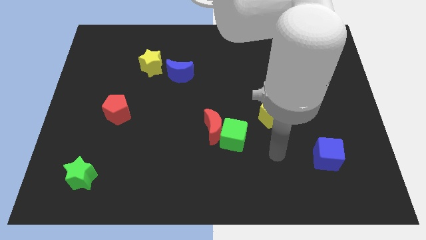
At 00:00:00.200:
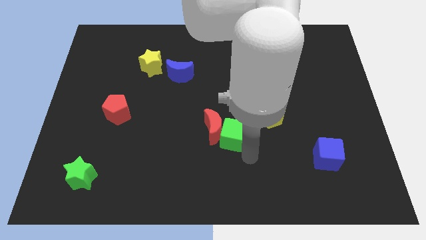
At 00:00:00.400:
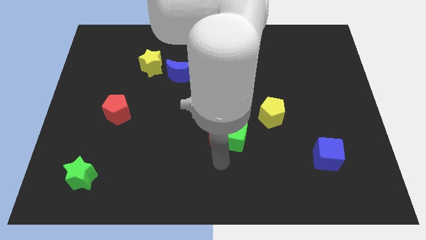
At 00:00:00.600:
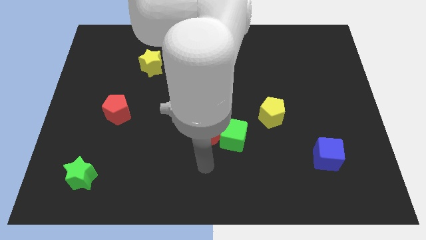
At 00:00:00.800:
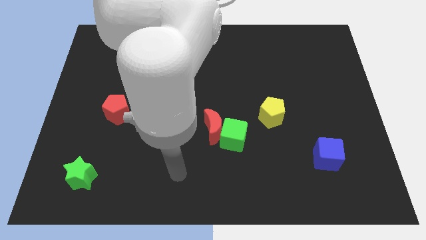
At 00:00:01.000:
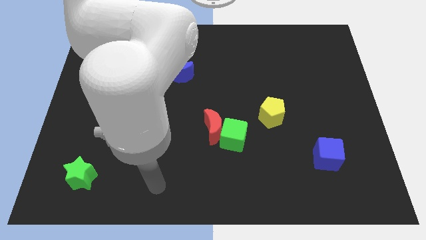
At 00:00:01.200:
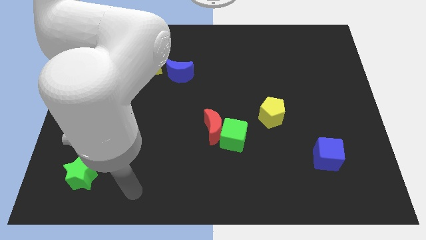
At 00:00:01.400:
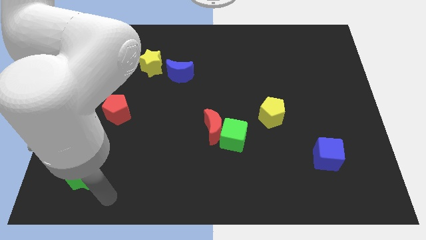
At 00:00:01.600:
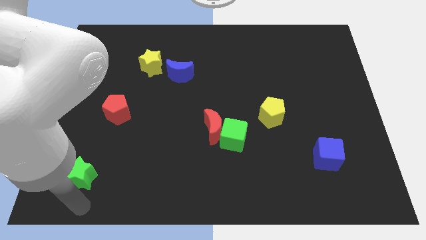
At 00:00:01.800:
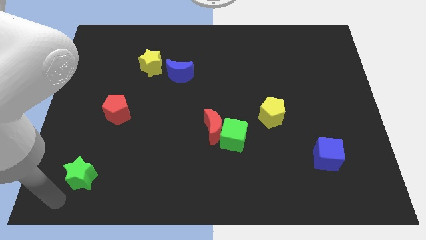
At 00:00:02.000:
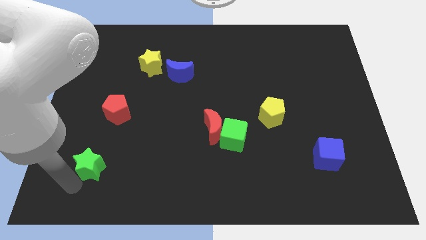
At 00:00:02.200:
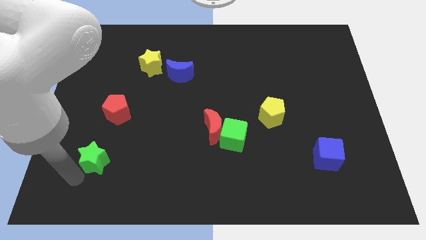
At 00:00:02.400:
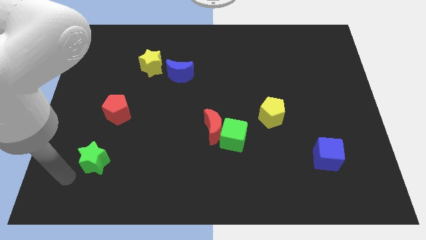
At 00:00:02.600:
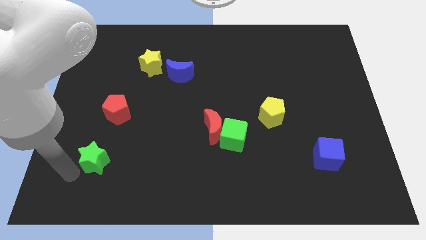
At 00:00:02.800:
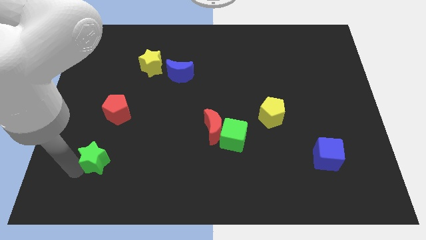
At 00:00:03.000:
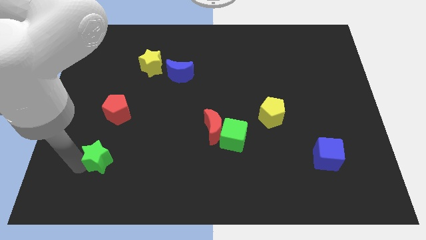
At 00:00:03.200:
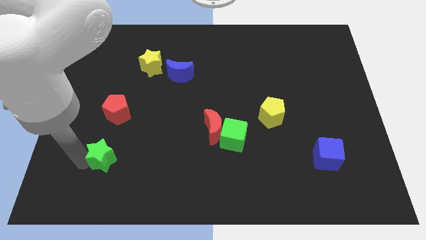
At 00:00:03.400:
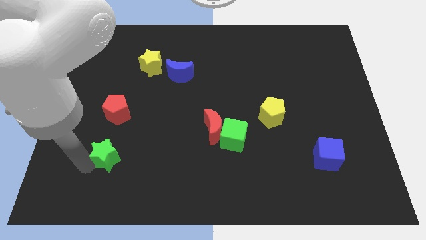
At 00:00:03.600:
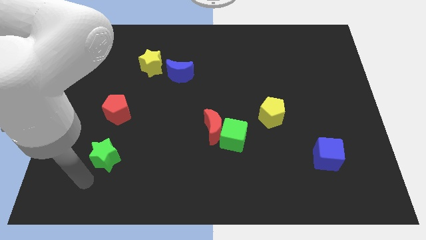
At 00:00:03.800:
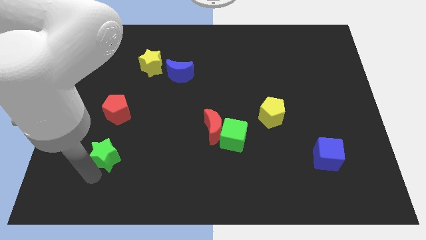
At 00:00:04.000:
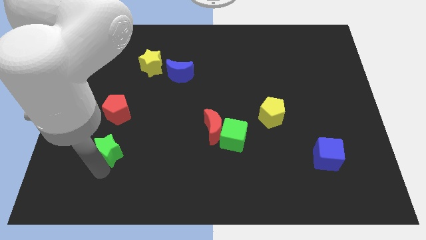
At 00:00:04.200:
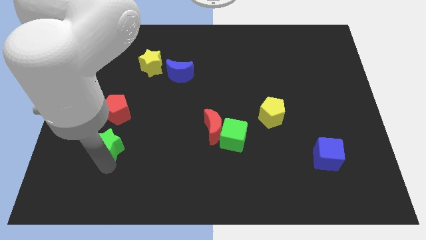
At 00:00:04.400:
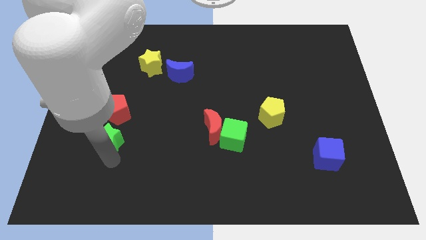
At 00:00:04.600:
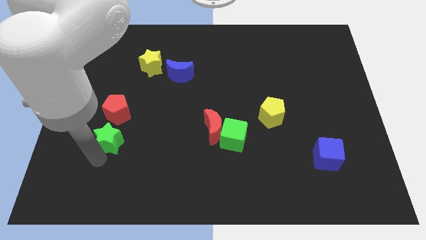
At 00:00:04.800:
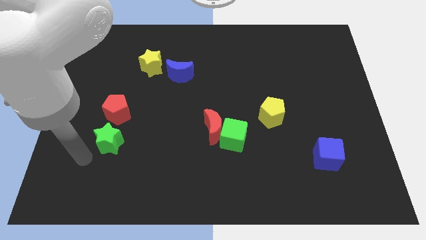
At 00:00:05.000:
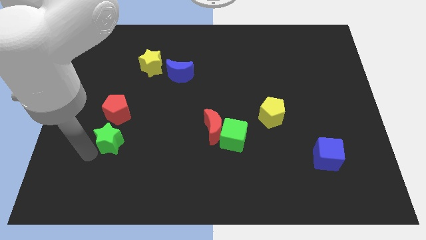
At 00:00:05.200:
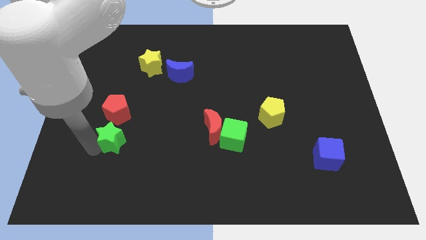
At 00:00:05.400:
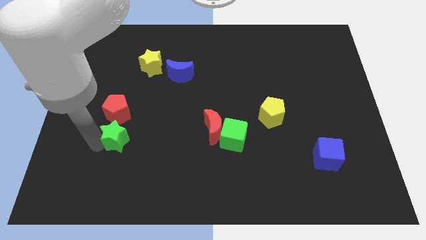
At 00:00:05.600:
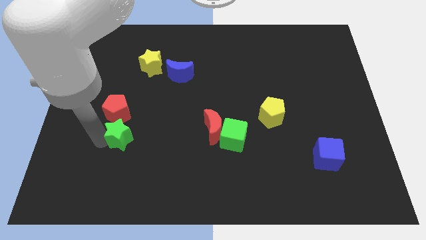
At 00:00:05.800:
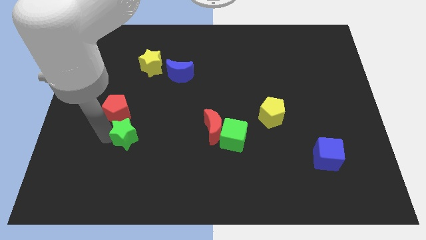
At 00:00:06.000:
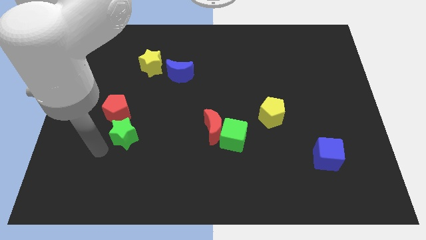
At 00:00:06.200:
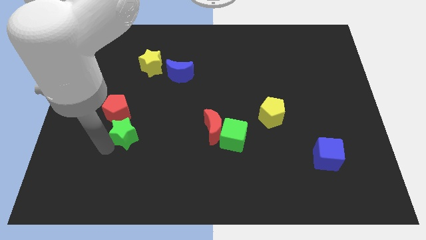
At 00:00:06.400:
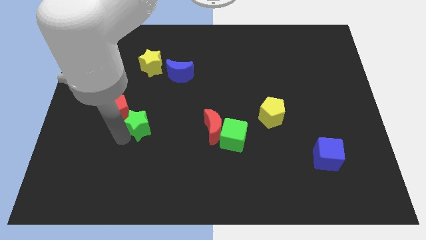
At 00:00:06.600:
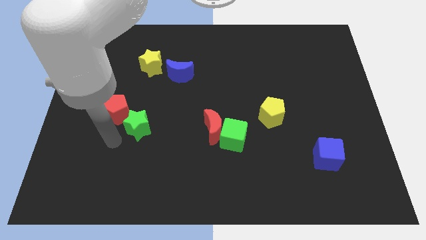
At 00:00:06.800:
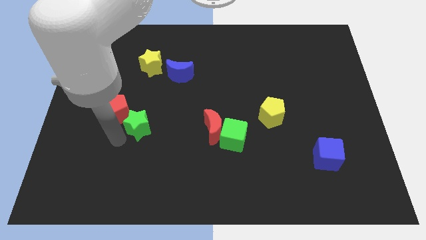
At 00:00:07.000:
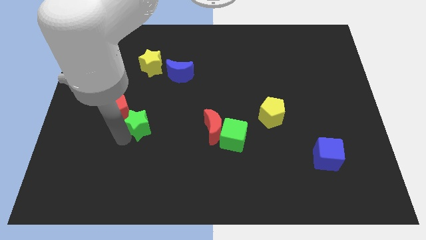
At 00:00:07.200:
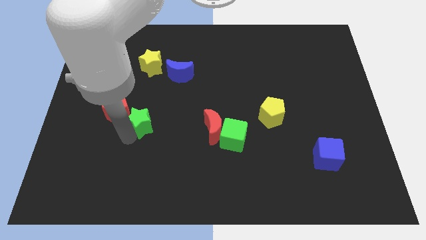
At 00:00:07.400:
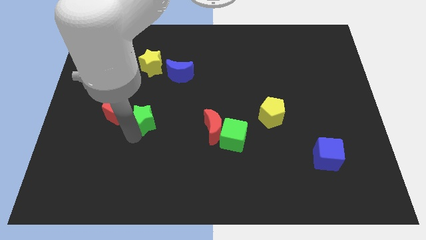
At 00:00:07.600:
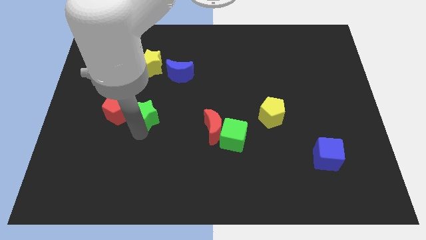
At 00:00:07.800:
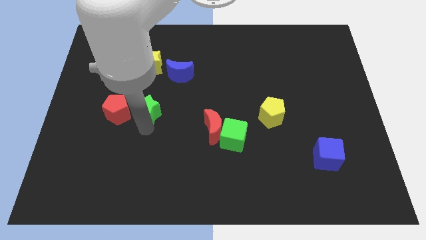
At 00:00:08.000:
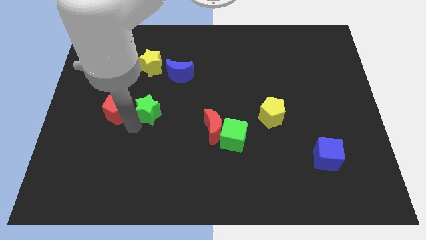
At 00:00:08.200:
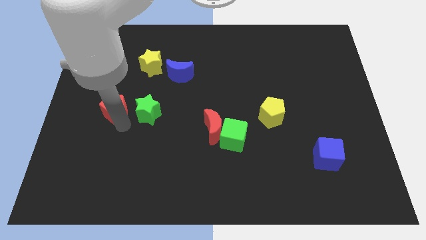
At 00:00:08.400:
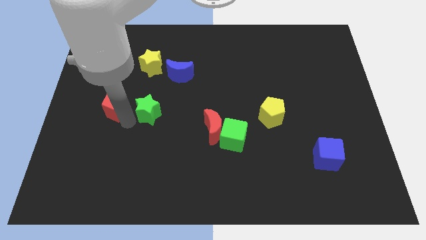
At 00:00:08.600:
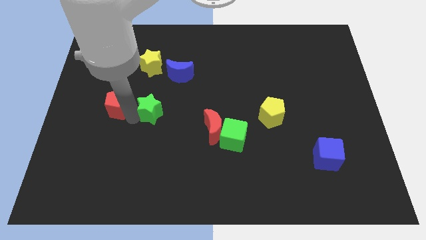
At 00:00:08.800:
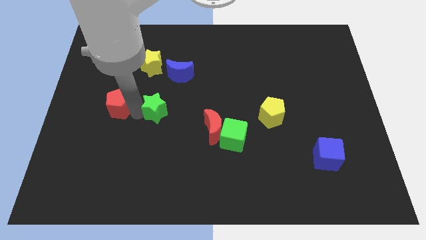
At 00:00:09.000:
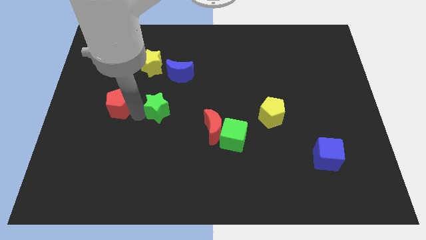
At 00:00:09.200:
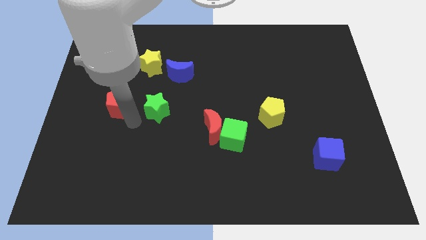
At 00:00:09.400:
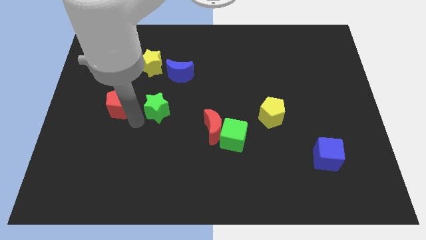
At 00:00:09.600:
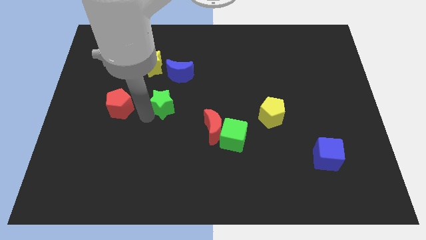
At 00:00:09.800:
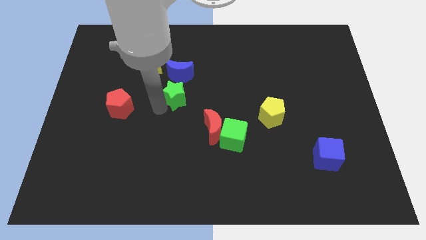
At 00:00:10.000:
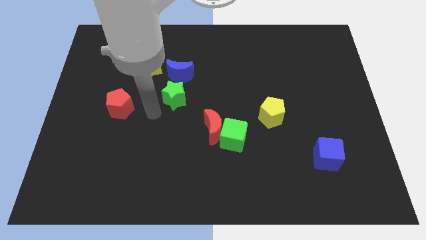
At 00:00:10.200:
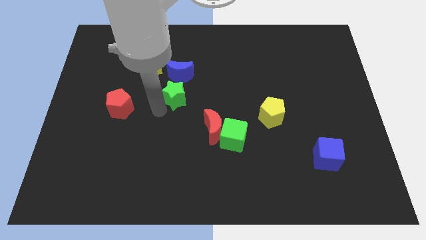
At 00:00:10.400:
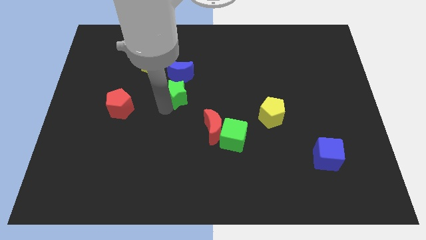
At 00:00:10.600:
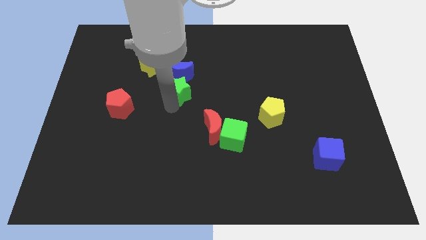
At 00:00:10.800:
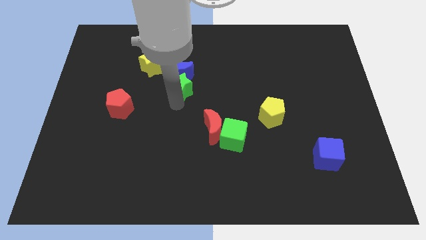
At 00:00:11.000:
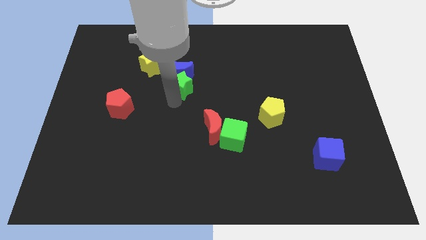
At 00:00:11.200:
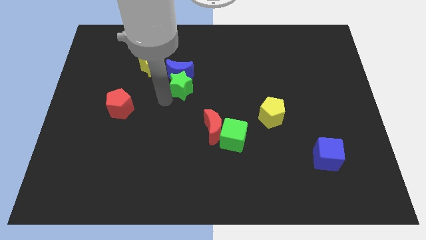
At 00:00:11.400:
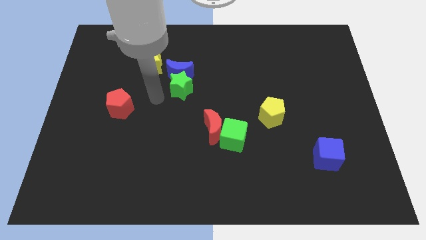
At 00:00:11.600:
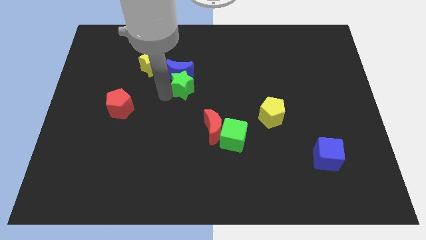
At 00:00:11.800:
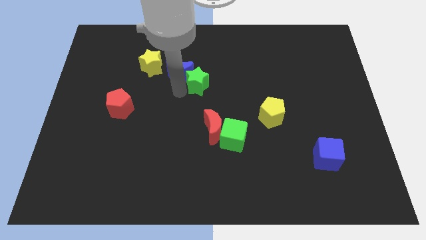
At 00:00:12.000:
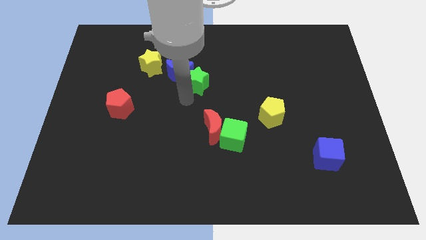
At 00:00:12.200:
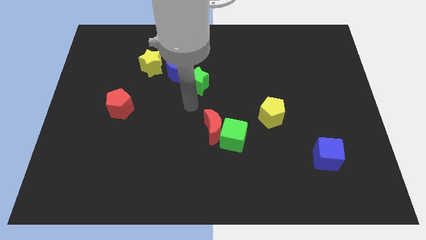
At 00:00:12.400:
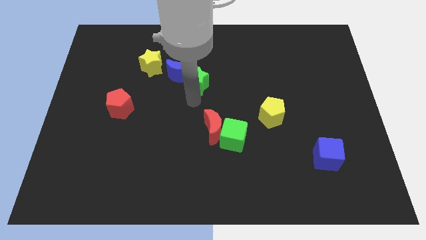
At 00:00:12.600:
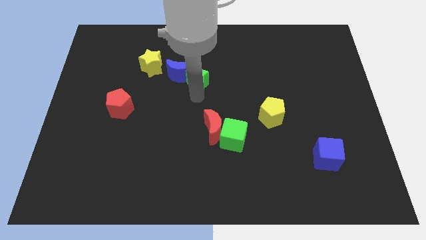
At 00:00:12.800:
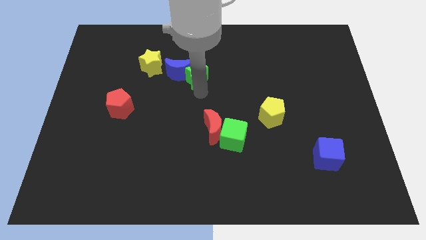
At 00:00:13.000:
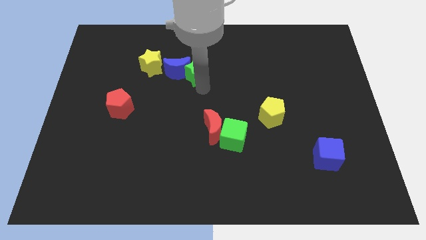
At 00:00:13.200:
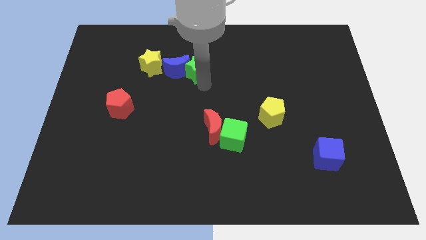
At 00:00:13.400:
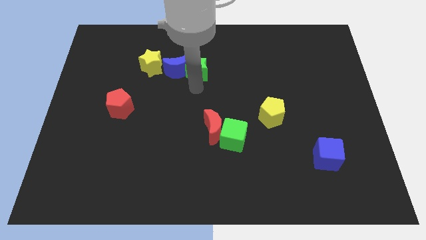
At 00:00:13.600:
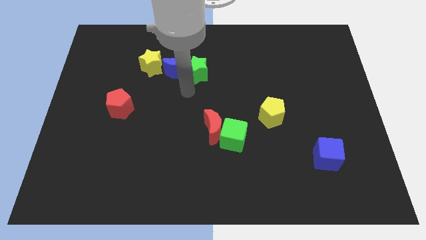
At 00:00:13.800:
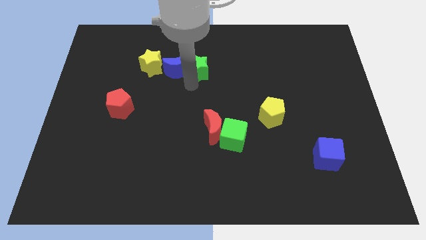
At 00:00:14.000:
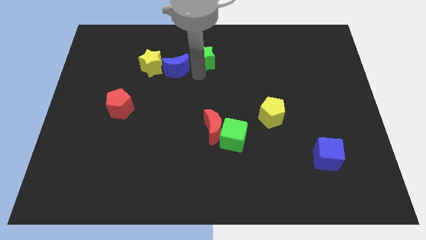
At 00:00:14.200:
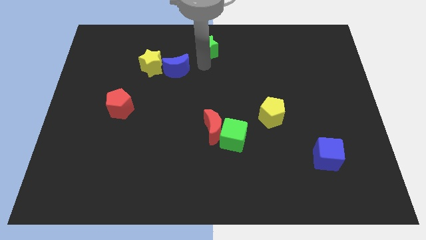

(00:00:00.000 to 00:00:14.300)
move the green star to the top
